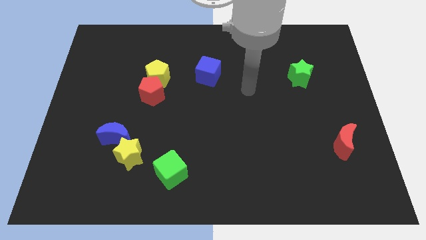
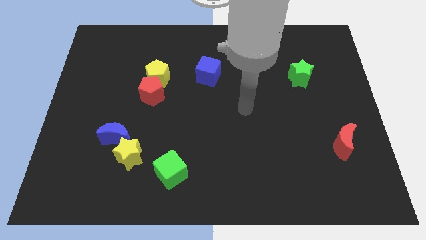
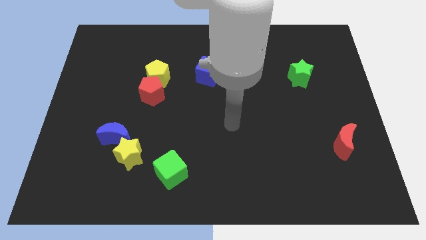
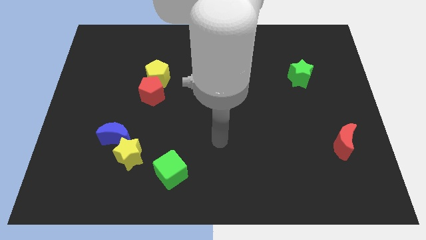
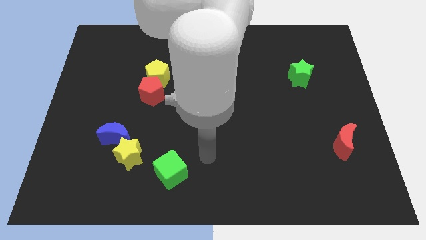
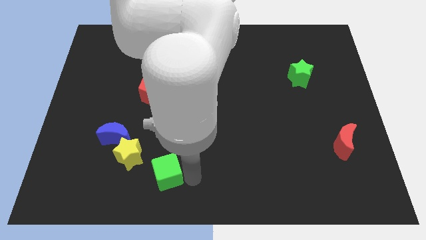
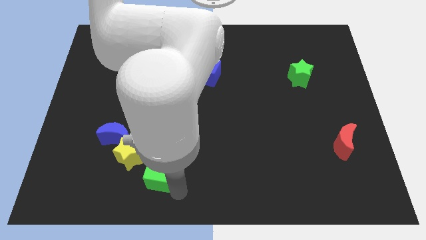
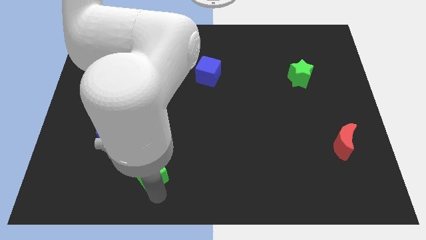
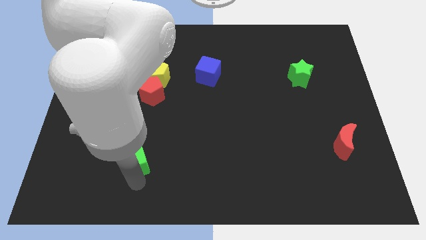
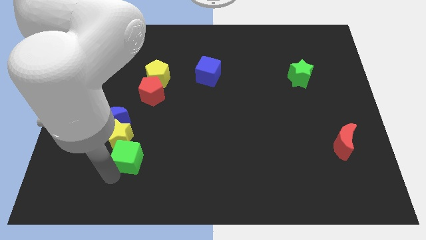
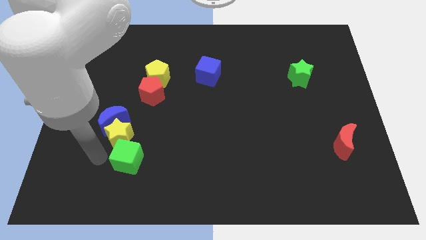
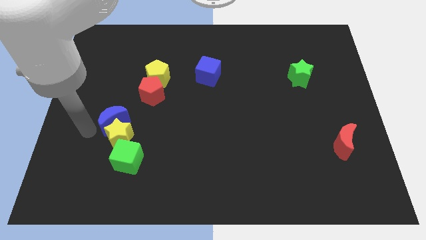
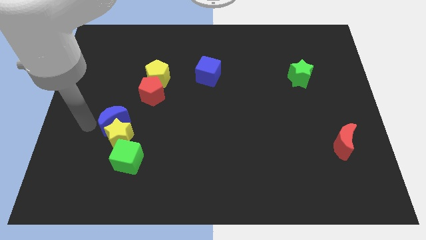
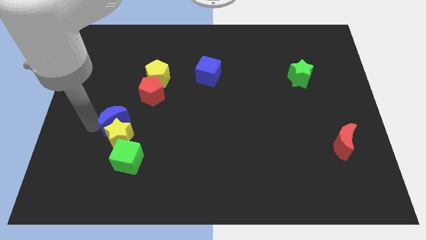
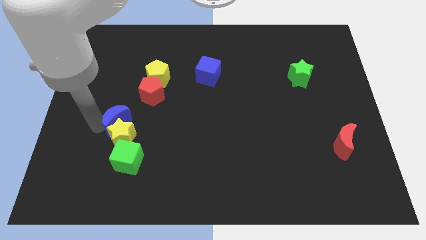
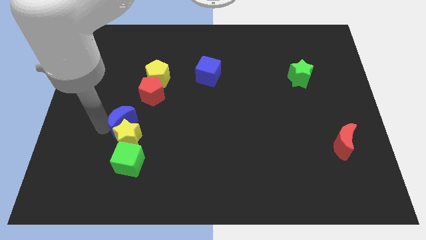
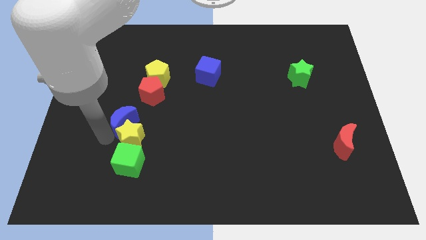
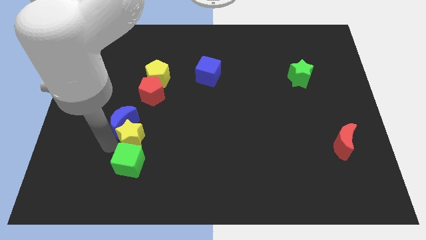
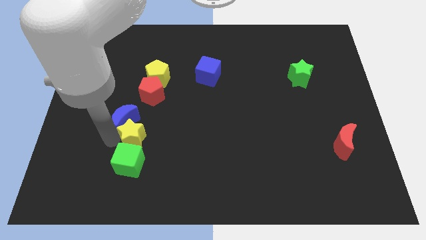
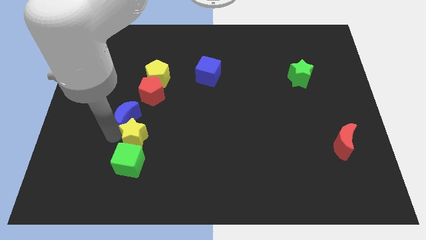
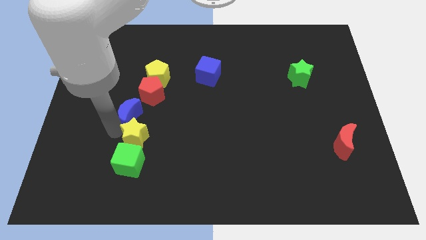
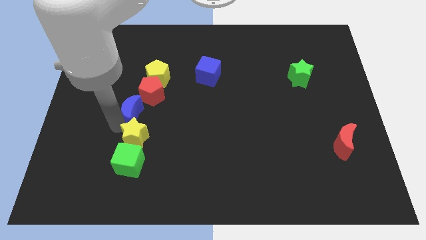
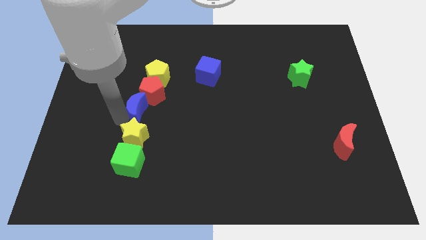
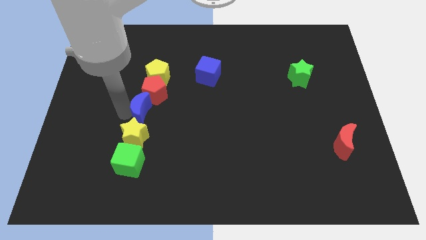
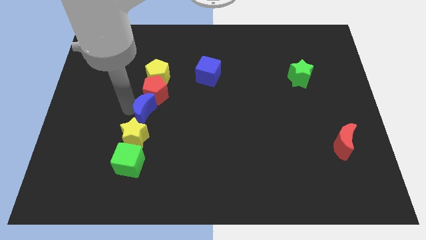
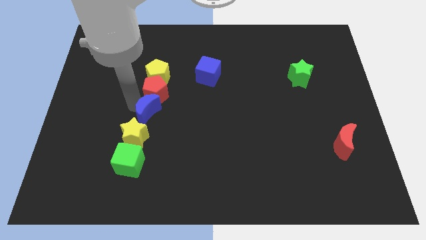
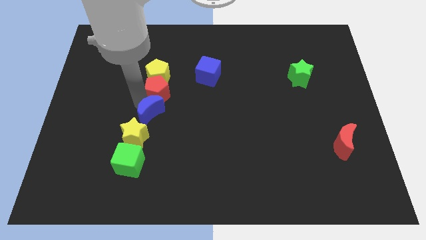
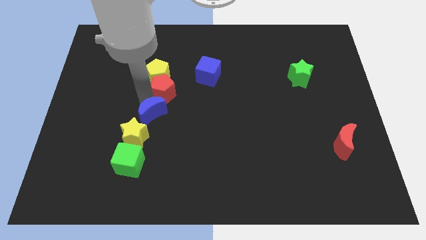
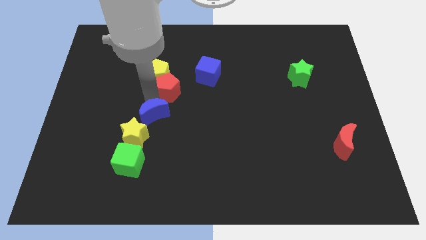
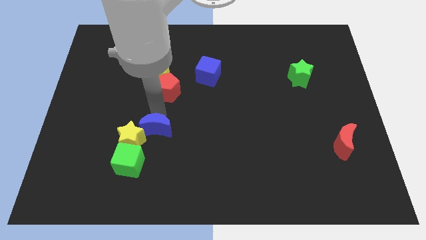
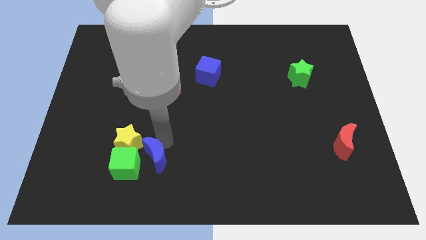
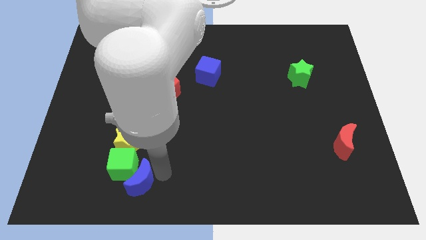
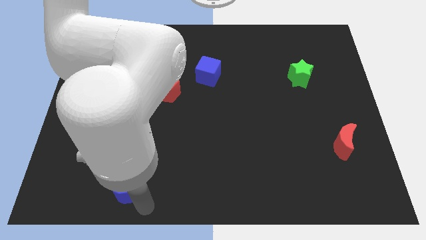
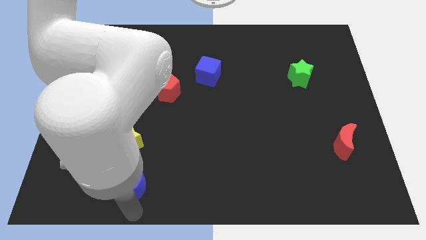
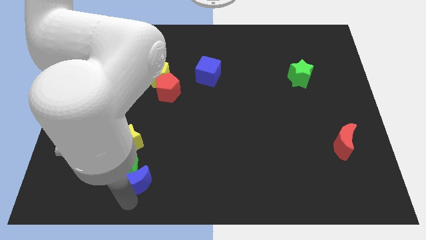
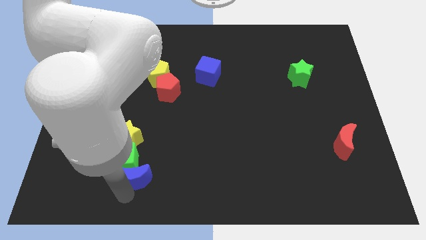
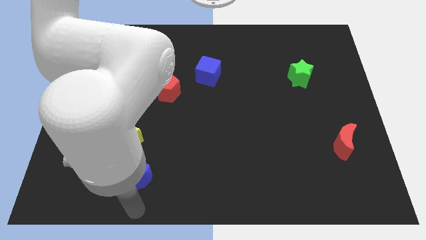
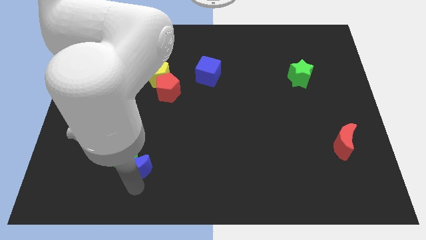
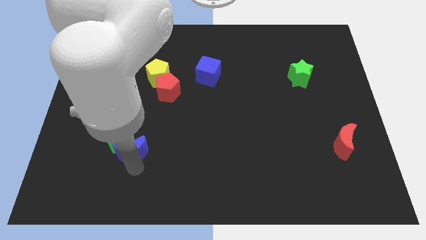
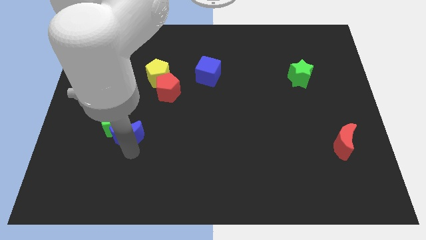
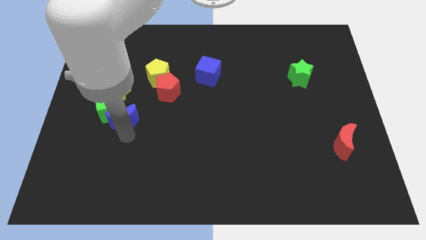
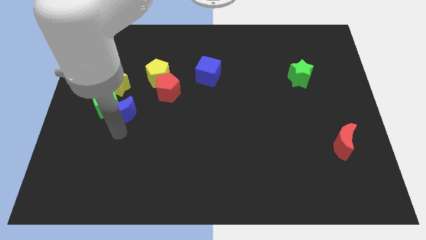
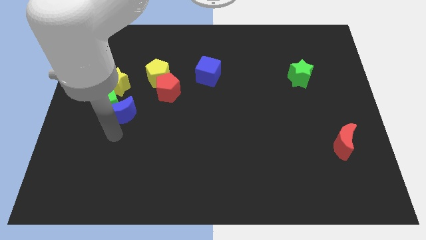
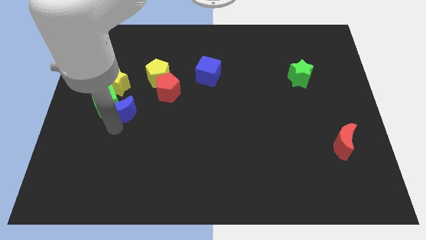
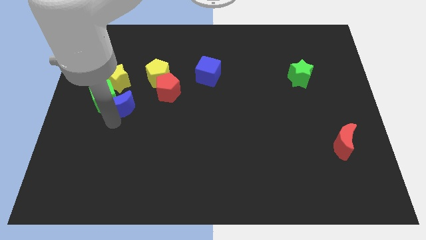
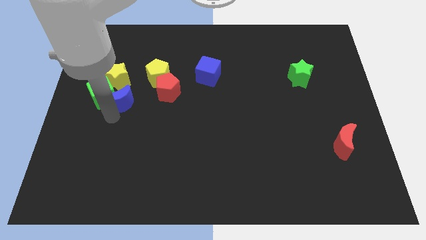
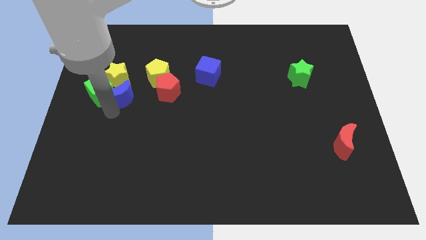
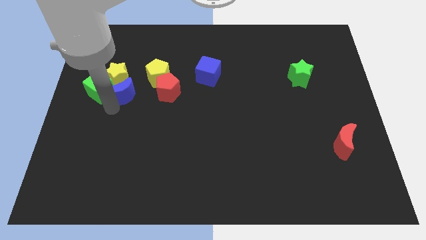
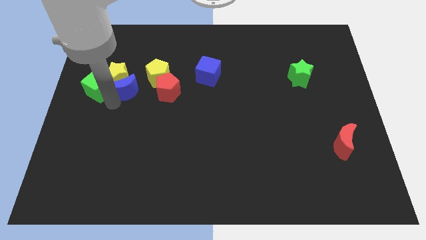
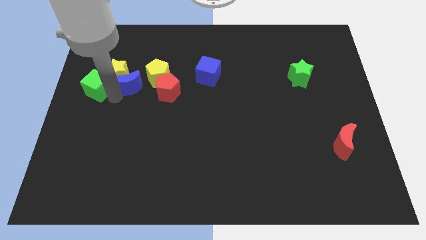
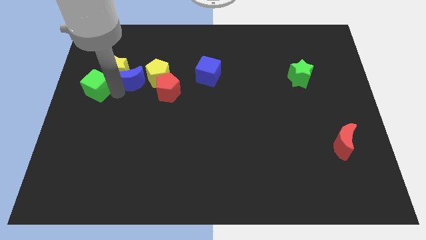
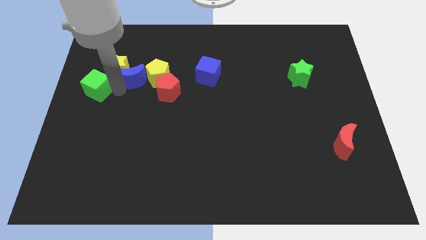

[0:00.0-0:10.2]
move the blue moon towards the yellow pentagon

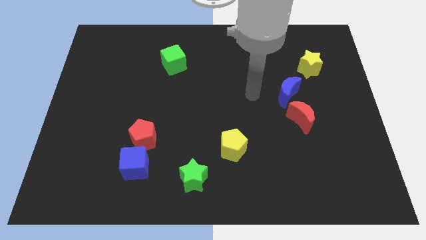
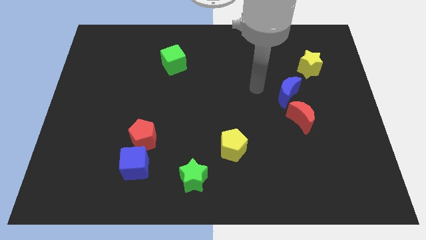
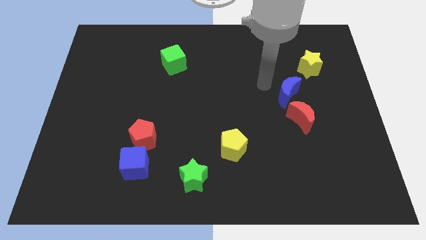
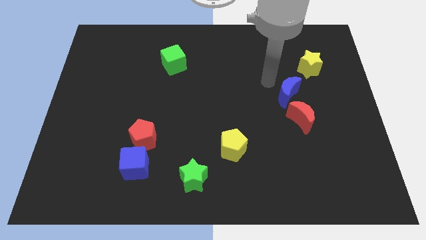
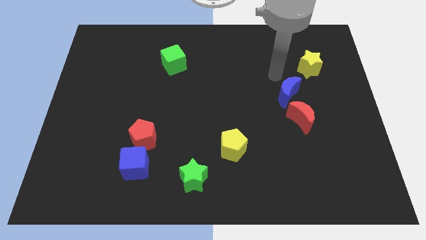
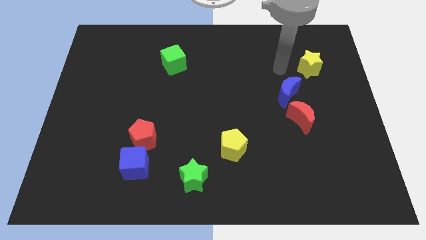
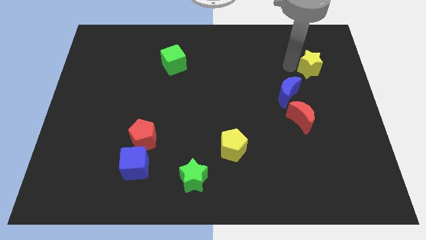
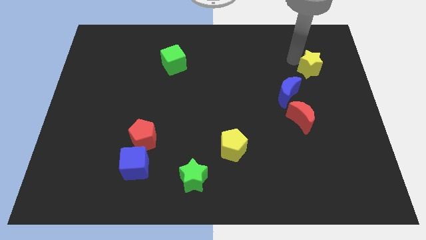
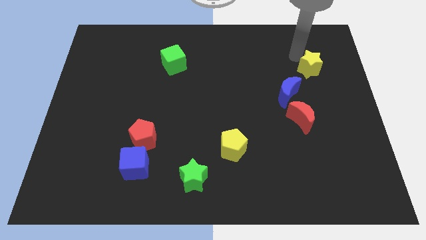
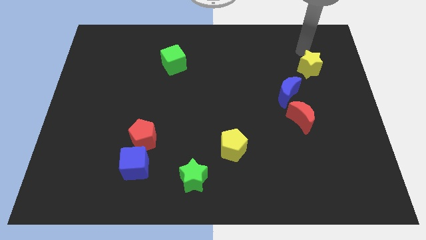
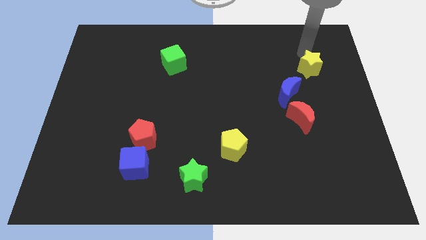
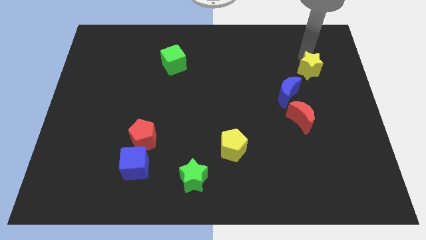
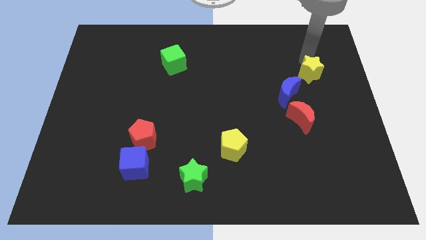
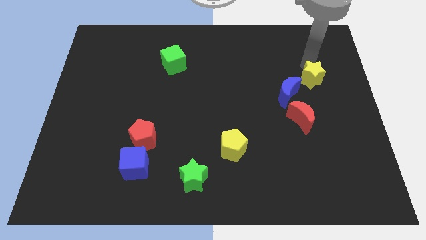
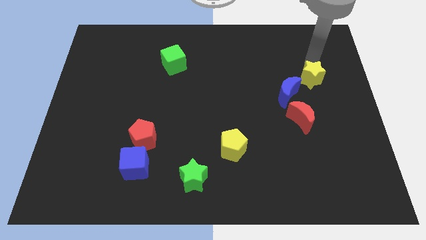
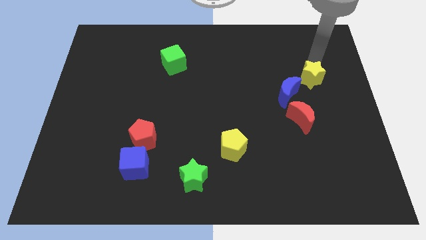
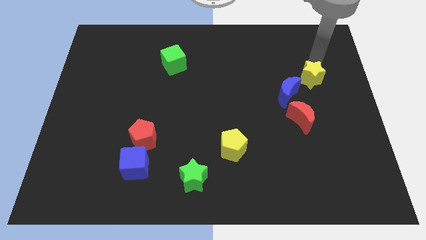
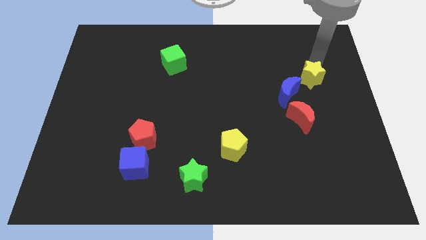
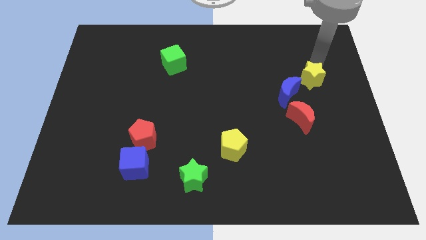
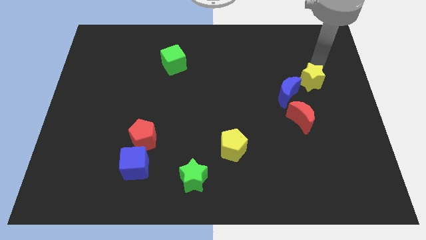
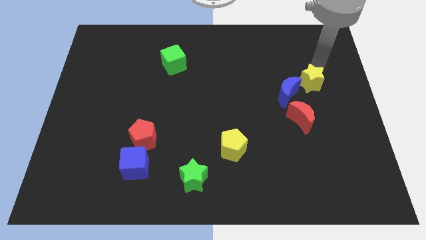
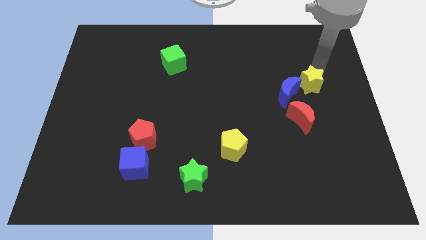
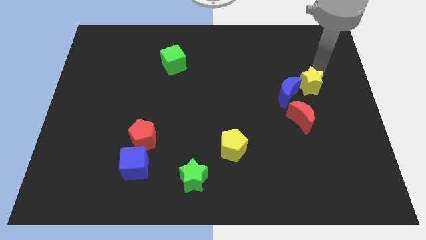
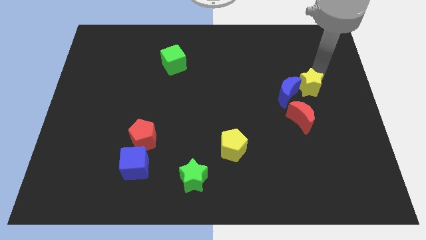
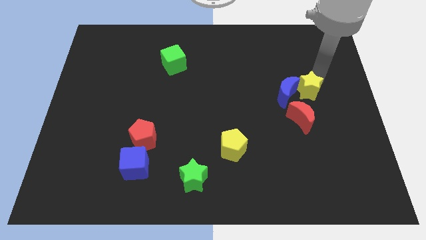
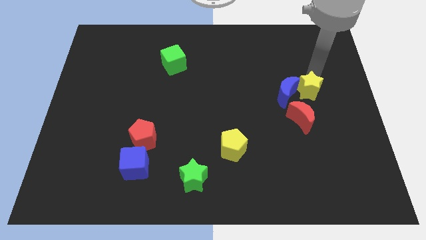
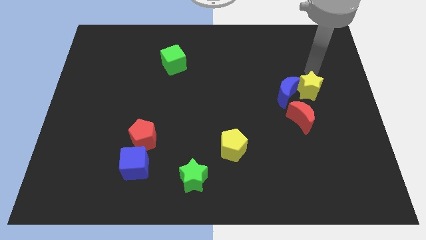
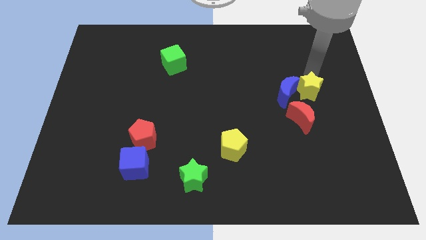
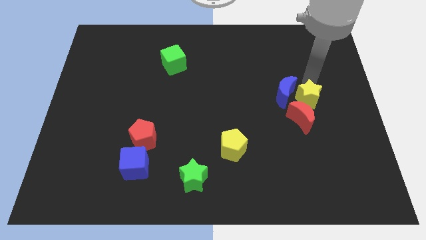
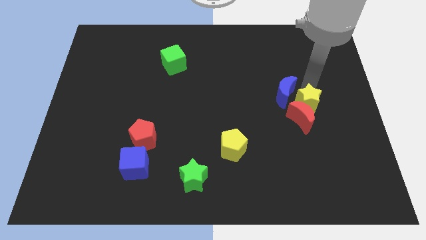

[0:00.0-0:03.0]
put the yellow star next to the red moon
